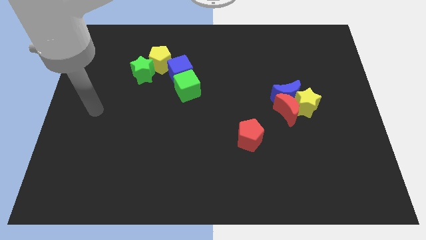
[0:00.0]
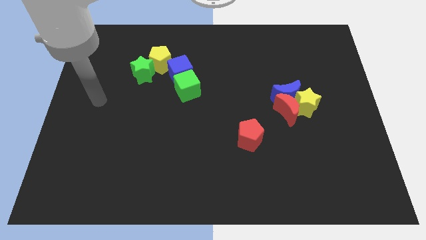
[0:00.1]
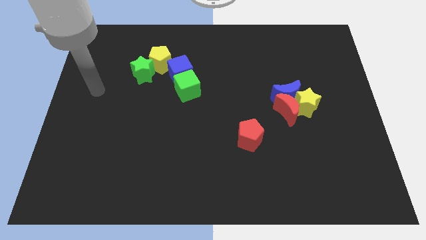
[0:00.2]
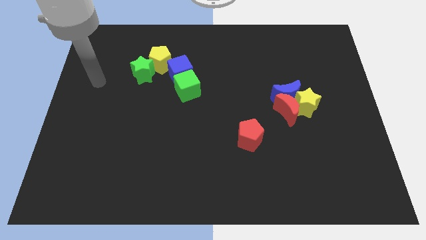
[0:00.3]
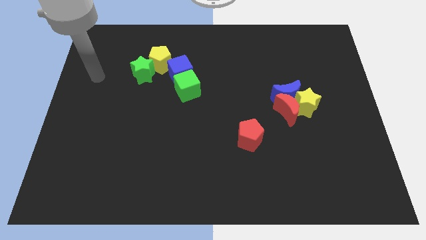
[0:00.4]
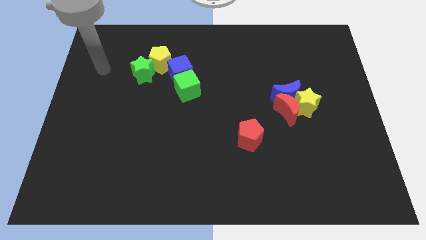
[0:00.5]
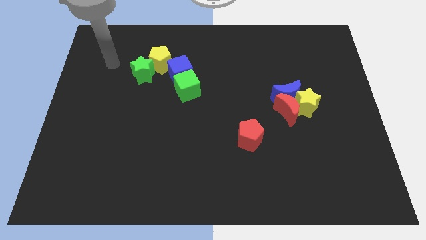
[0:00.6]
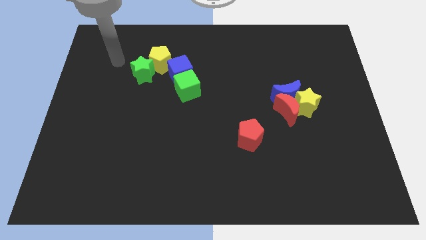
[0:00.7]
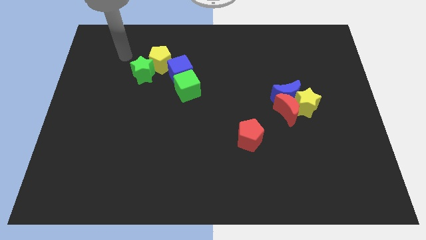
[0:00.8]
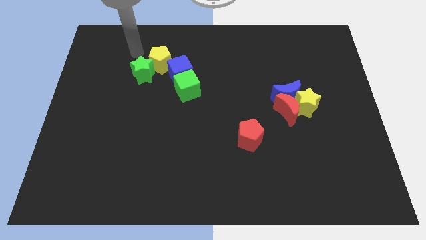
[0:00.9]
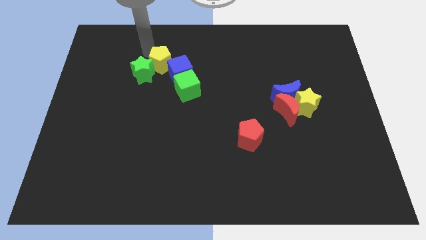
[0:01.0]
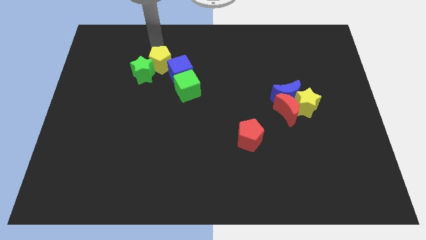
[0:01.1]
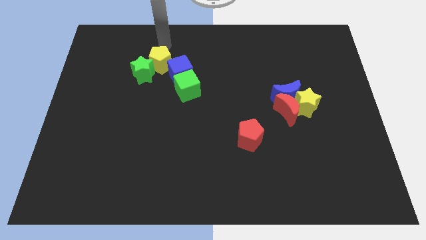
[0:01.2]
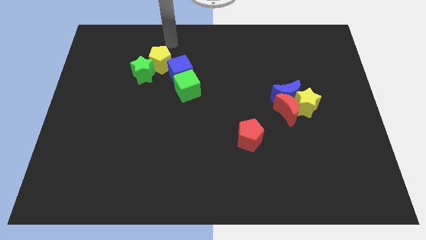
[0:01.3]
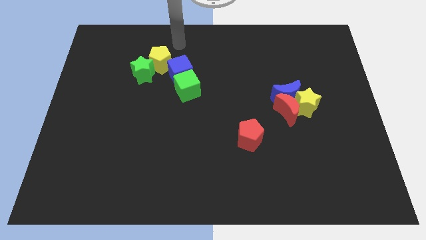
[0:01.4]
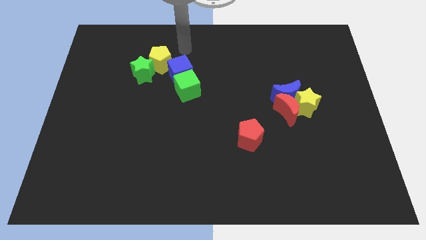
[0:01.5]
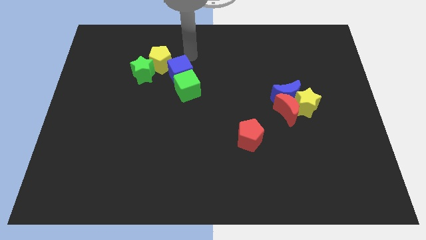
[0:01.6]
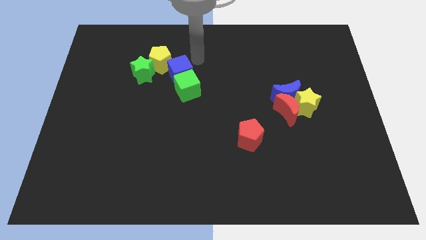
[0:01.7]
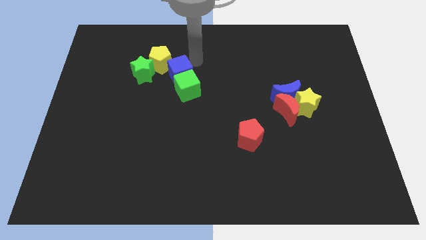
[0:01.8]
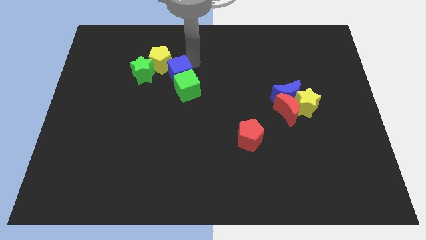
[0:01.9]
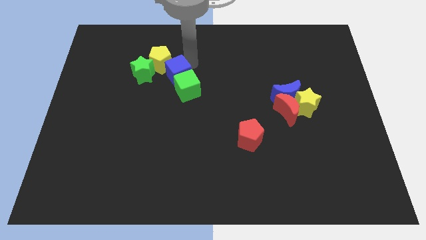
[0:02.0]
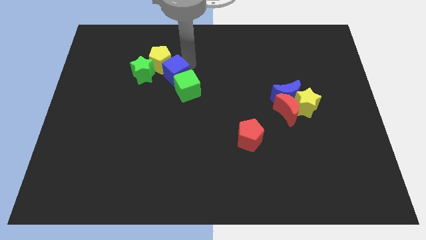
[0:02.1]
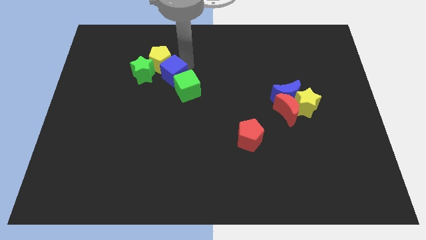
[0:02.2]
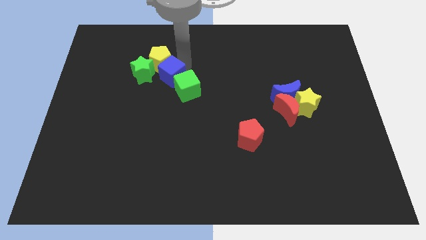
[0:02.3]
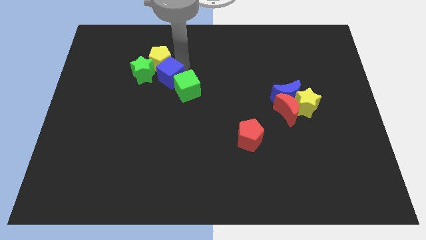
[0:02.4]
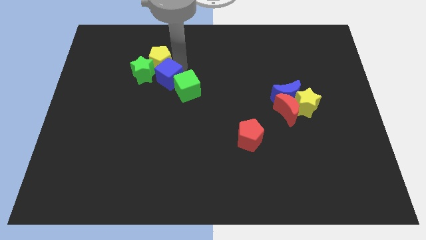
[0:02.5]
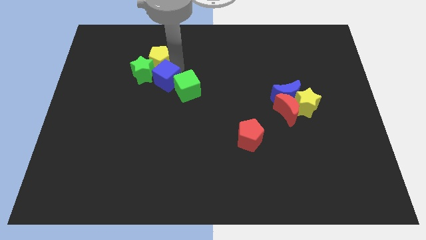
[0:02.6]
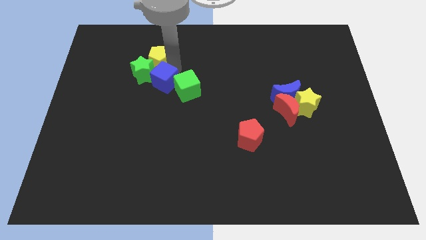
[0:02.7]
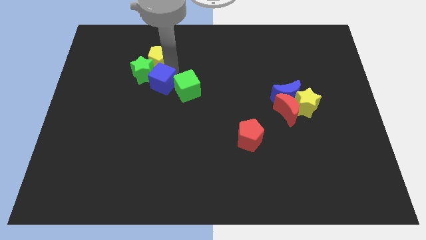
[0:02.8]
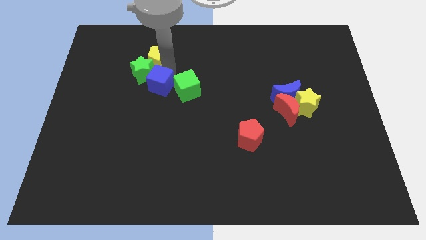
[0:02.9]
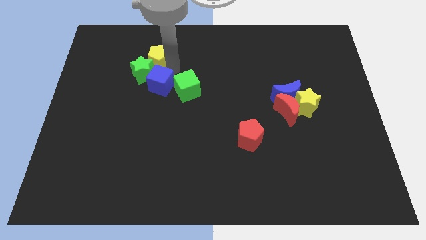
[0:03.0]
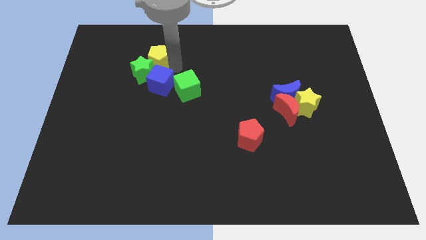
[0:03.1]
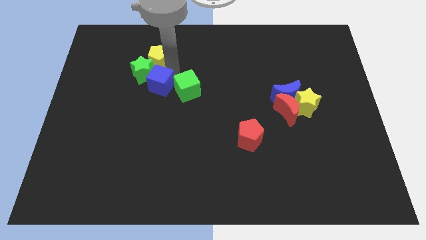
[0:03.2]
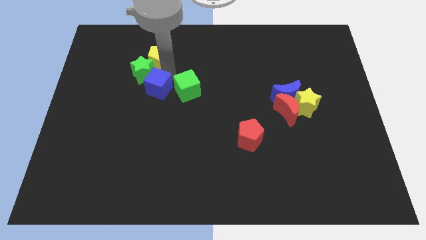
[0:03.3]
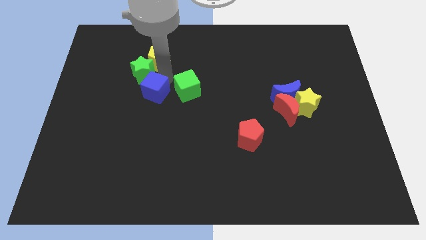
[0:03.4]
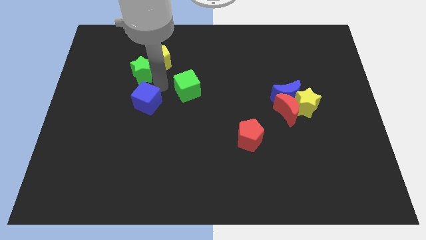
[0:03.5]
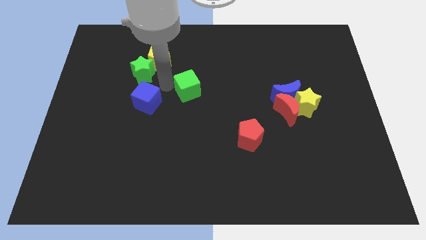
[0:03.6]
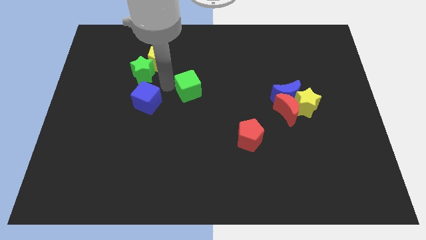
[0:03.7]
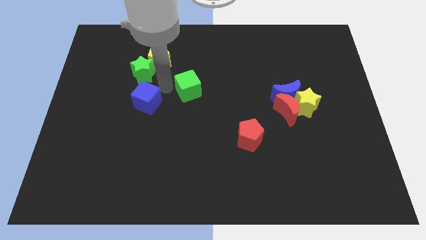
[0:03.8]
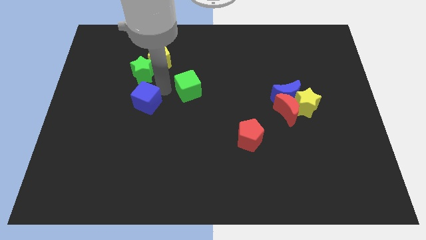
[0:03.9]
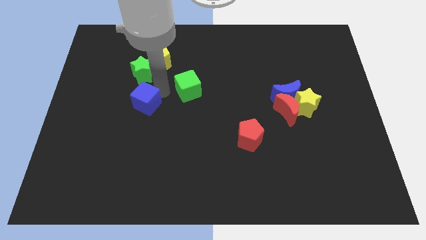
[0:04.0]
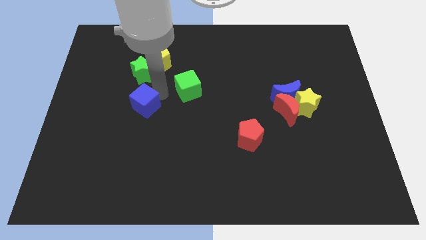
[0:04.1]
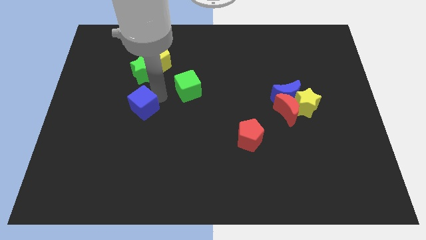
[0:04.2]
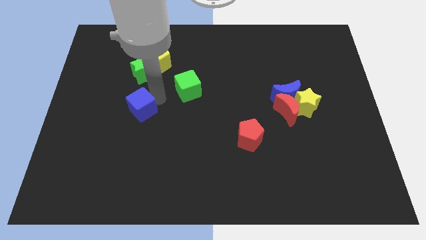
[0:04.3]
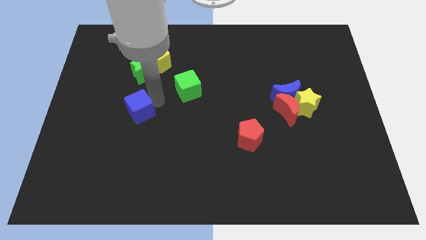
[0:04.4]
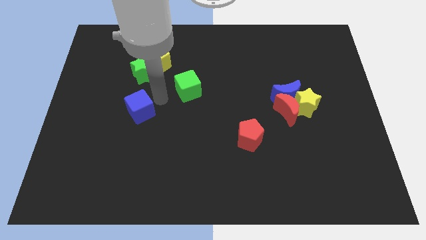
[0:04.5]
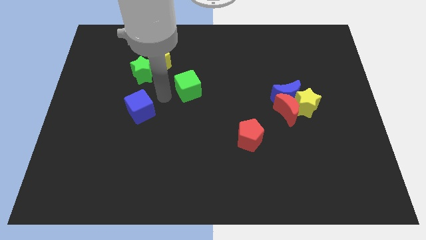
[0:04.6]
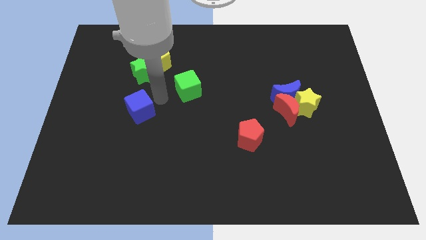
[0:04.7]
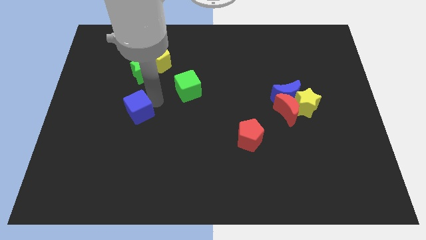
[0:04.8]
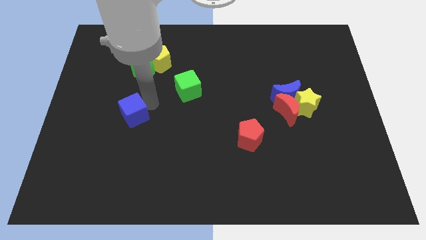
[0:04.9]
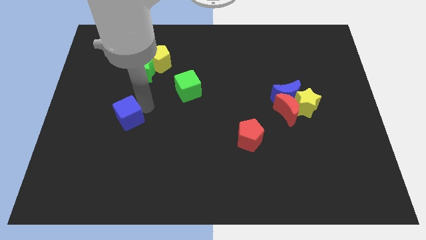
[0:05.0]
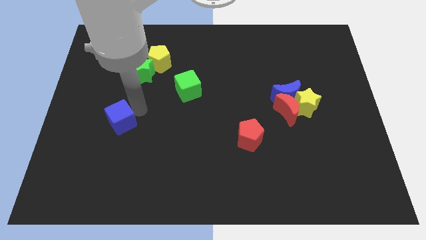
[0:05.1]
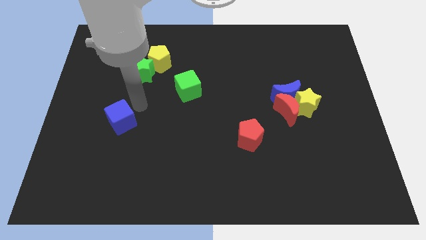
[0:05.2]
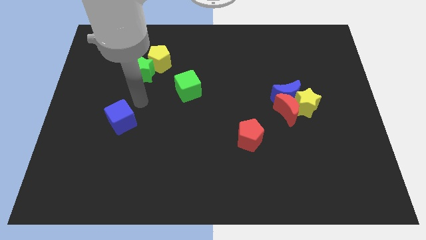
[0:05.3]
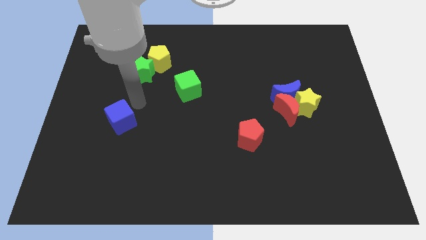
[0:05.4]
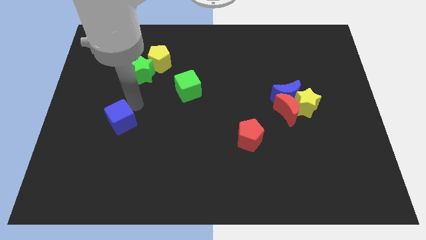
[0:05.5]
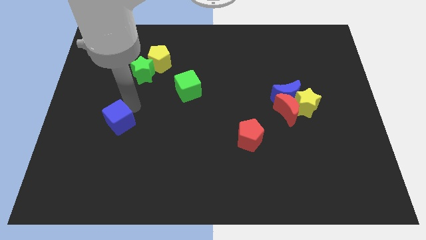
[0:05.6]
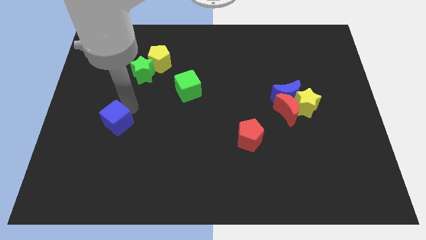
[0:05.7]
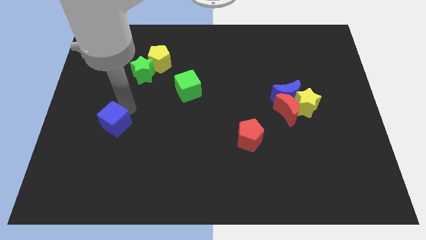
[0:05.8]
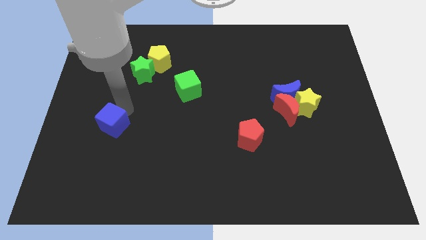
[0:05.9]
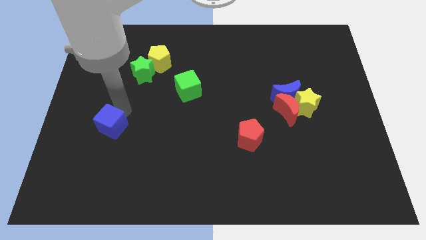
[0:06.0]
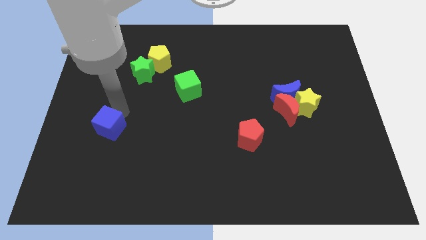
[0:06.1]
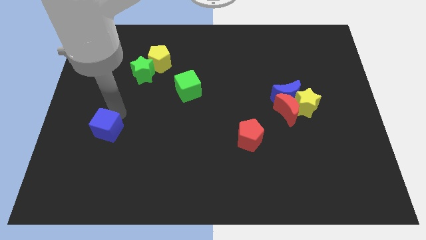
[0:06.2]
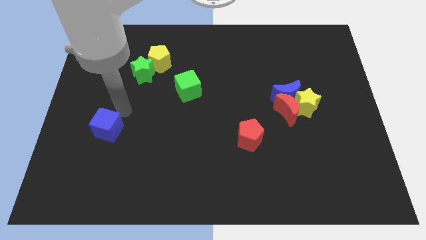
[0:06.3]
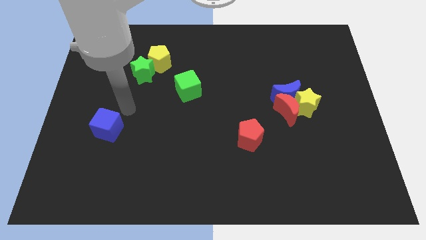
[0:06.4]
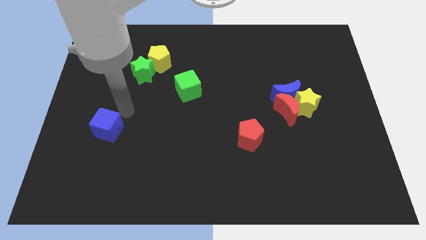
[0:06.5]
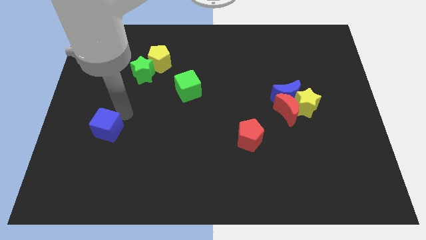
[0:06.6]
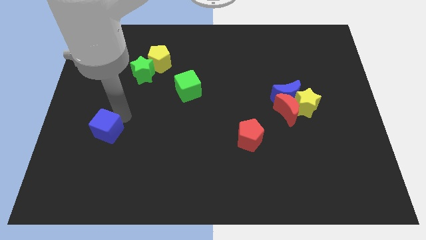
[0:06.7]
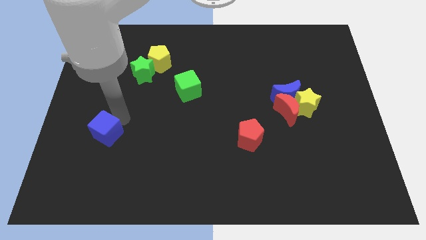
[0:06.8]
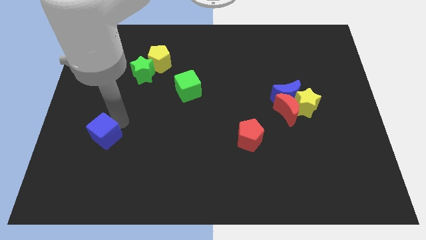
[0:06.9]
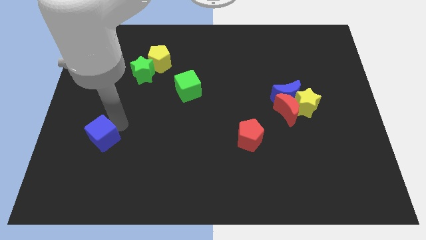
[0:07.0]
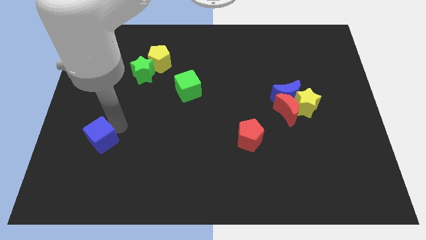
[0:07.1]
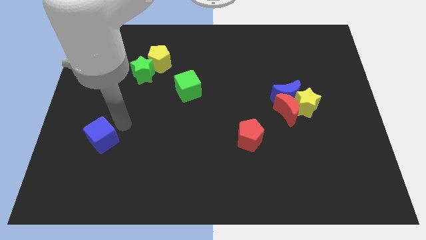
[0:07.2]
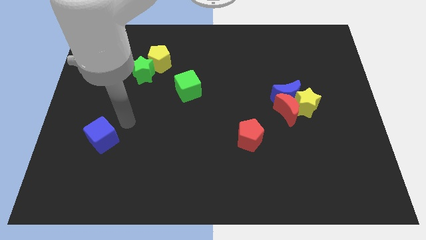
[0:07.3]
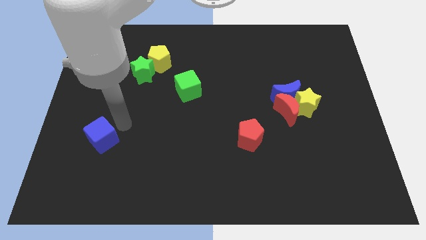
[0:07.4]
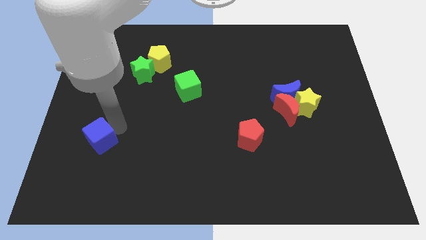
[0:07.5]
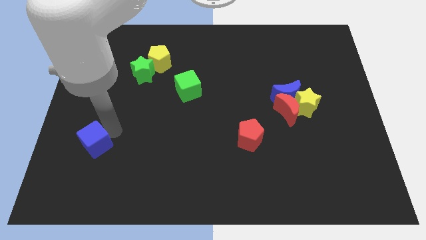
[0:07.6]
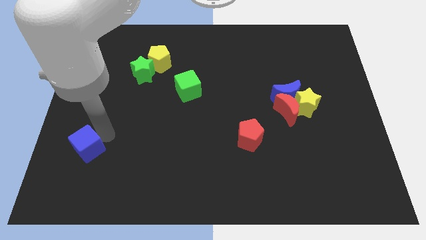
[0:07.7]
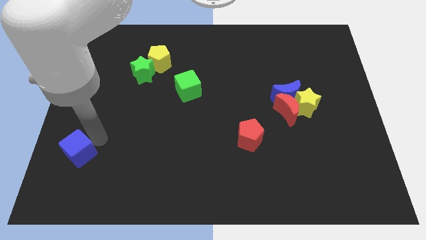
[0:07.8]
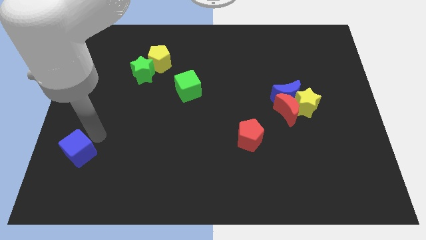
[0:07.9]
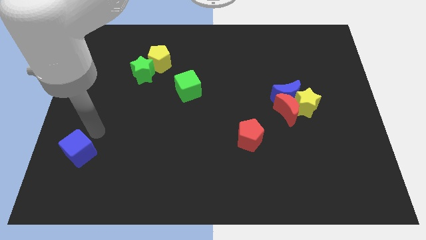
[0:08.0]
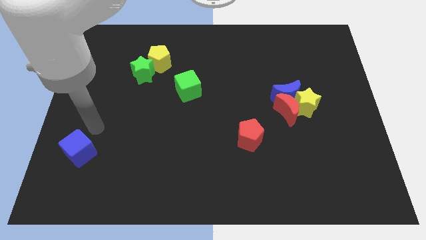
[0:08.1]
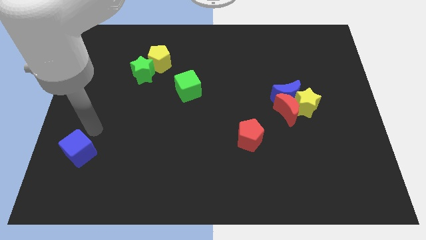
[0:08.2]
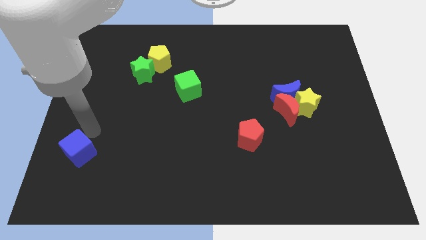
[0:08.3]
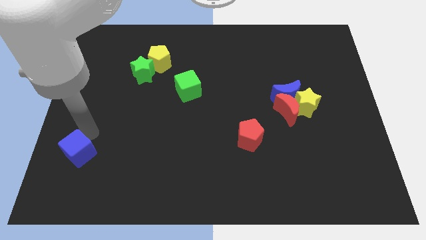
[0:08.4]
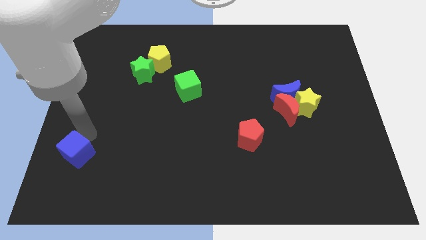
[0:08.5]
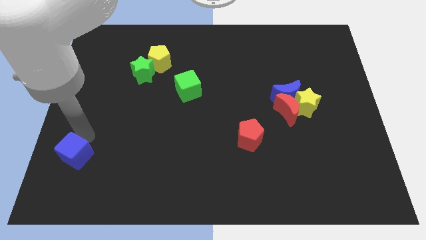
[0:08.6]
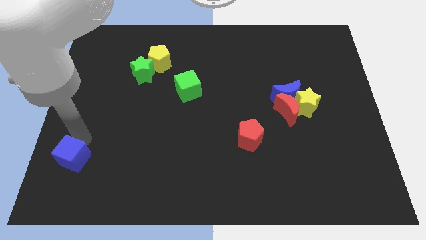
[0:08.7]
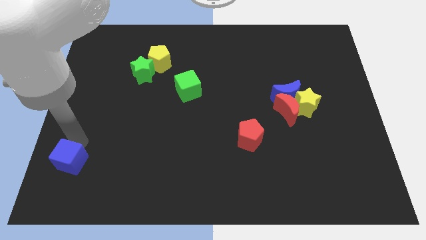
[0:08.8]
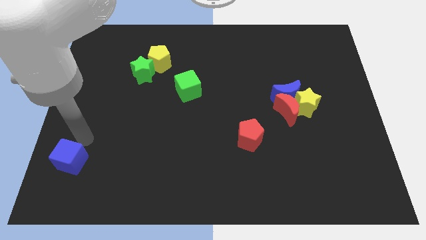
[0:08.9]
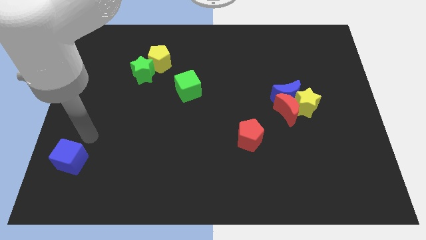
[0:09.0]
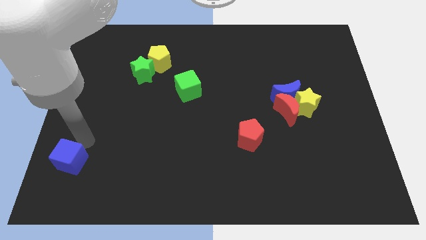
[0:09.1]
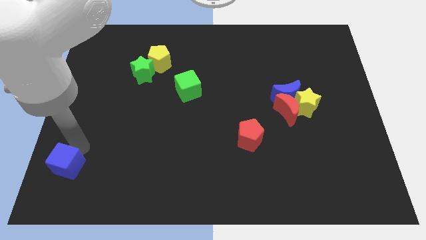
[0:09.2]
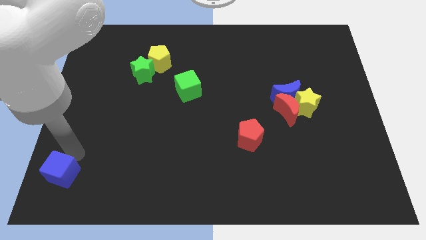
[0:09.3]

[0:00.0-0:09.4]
slide the blue cube to the lower left corner
